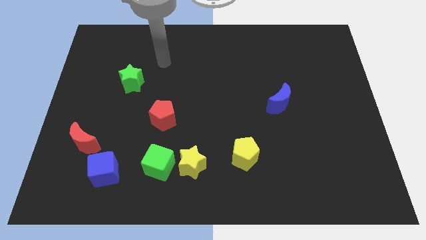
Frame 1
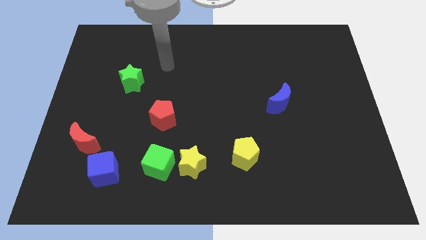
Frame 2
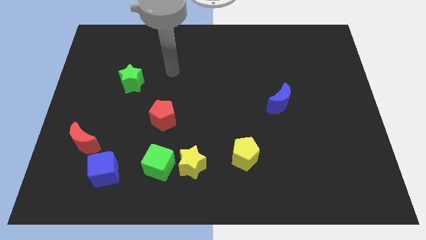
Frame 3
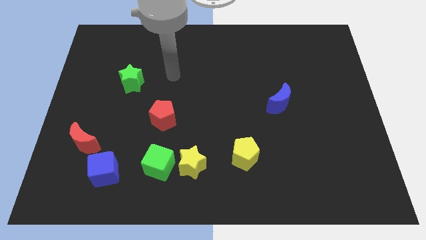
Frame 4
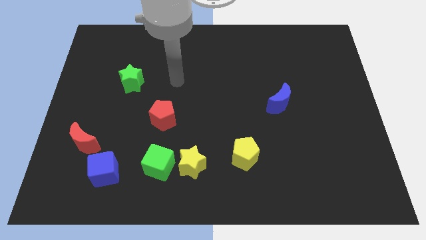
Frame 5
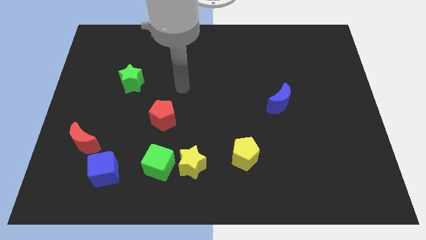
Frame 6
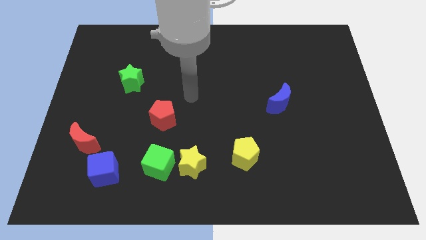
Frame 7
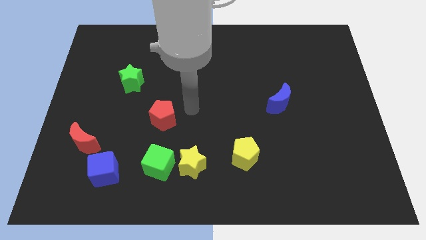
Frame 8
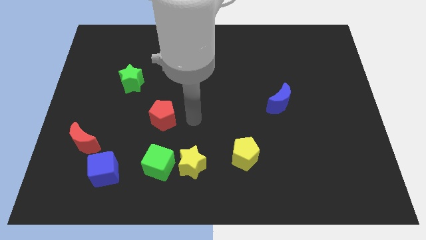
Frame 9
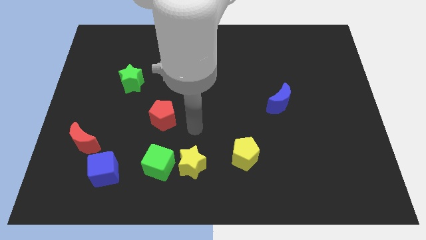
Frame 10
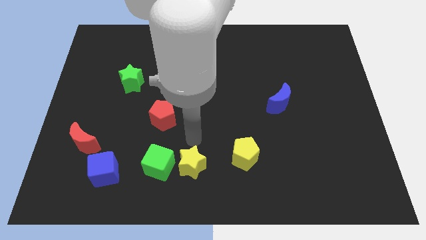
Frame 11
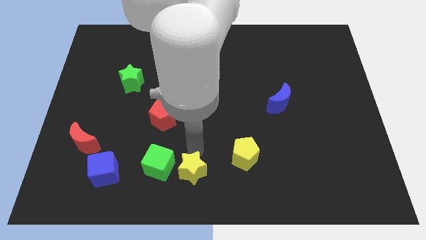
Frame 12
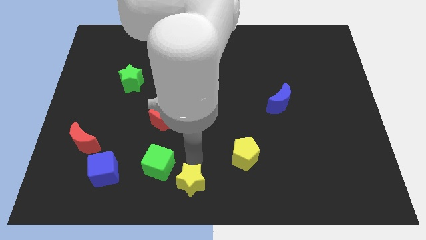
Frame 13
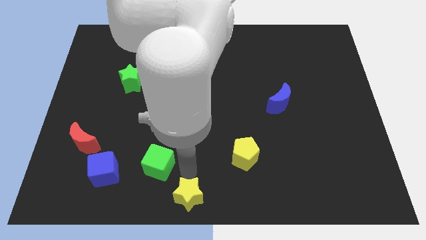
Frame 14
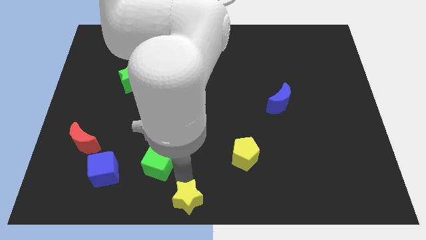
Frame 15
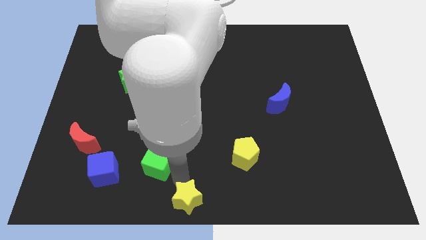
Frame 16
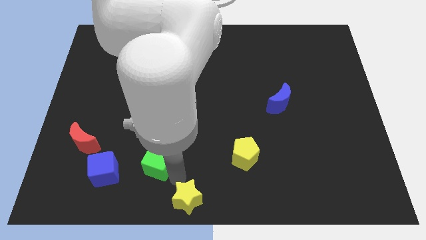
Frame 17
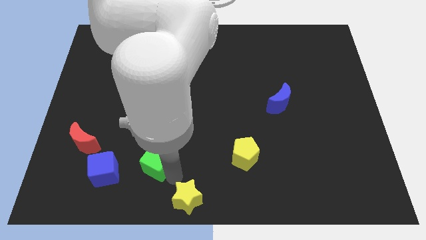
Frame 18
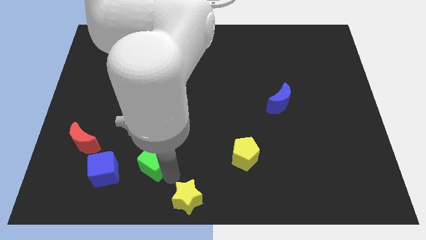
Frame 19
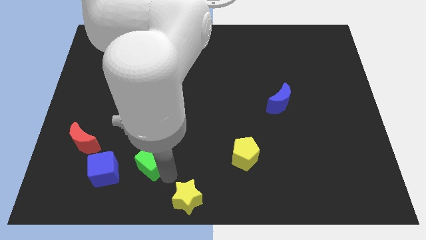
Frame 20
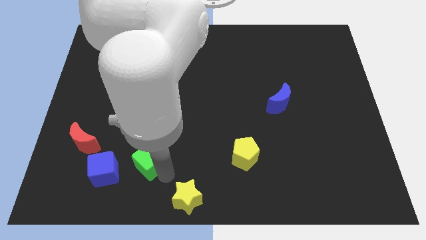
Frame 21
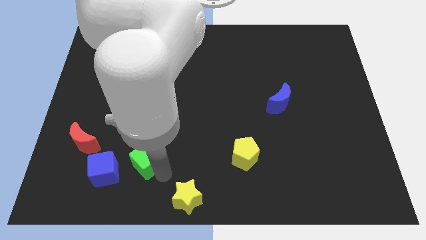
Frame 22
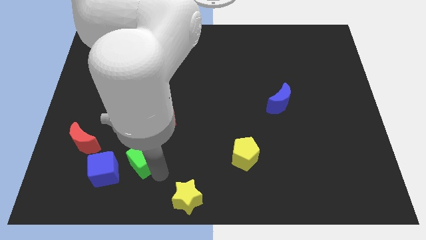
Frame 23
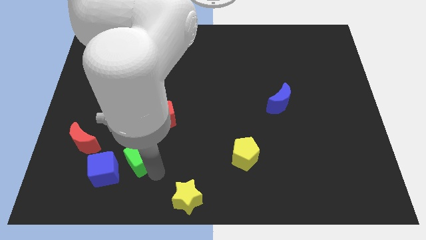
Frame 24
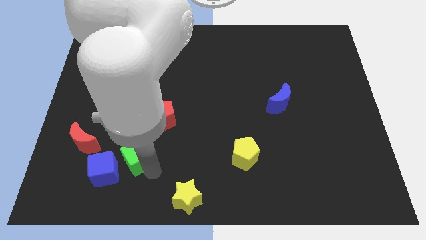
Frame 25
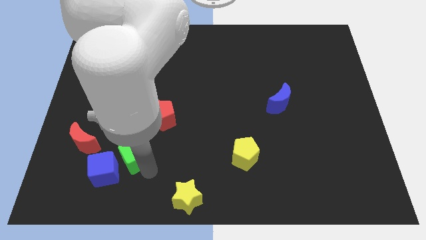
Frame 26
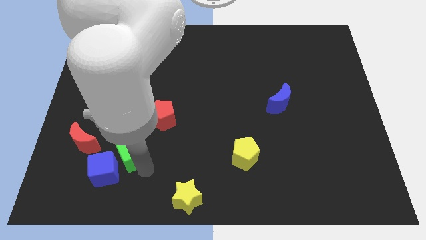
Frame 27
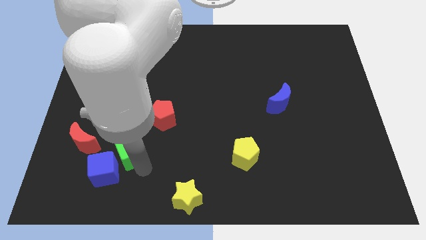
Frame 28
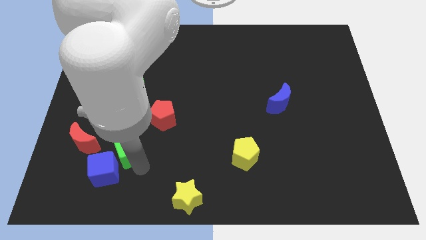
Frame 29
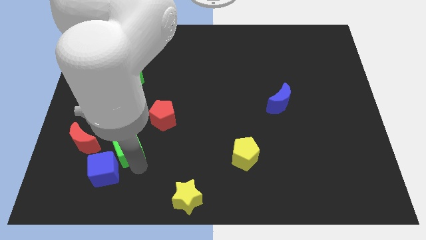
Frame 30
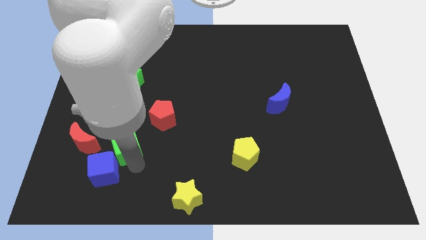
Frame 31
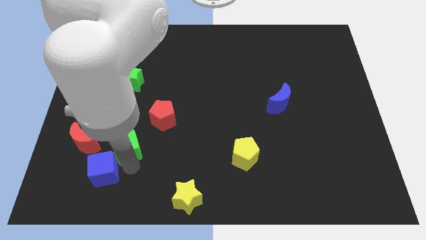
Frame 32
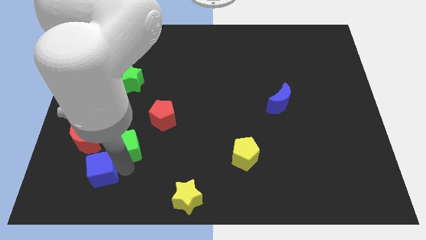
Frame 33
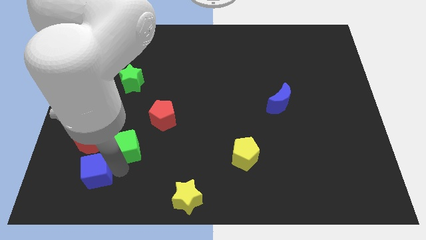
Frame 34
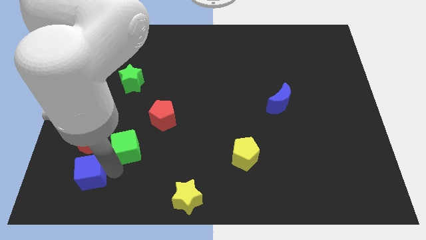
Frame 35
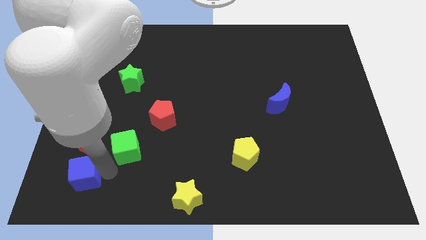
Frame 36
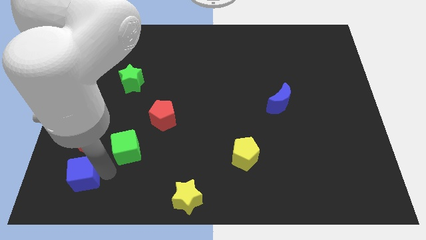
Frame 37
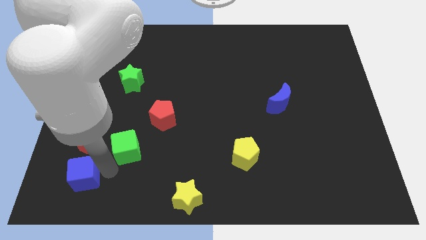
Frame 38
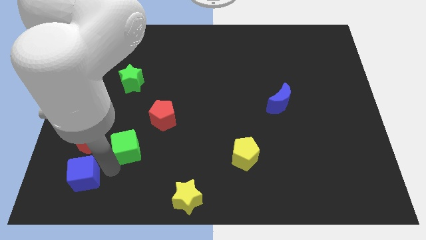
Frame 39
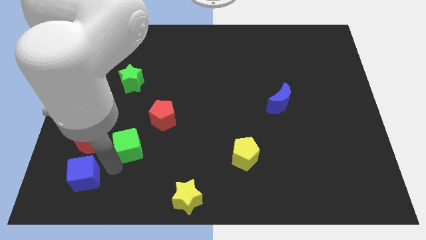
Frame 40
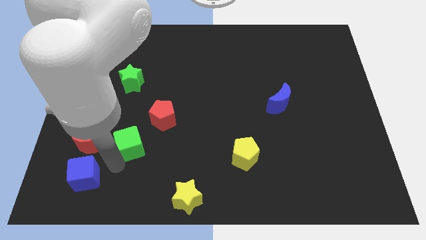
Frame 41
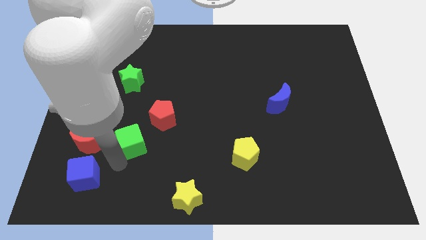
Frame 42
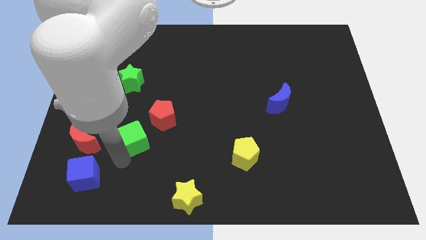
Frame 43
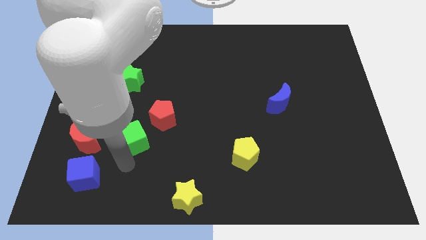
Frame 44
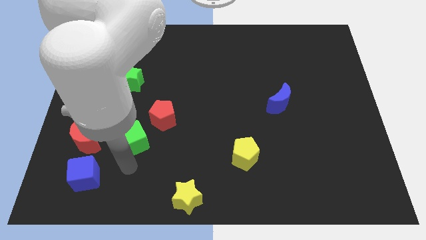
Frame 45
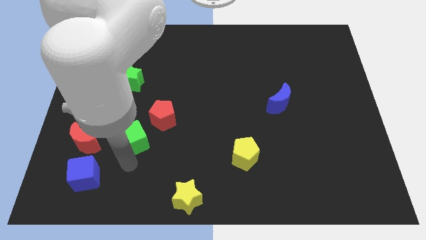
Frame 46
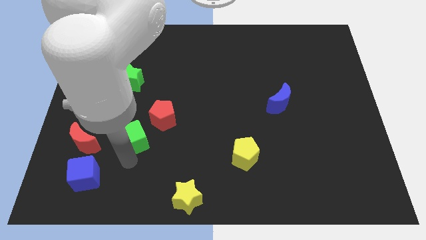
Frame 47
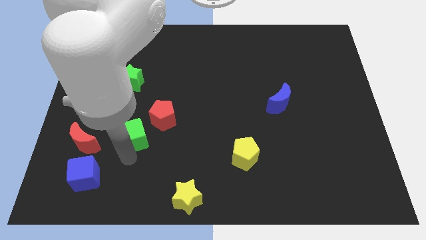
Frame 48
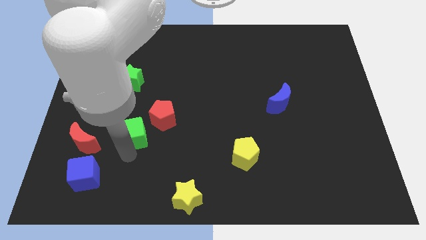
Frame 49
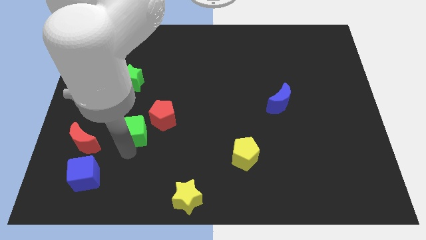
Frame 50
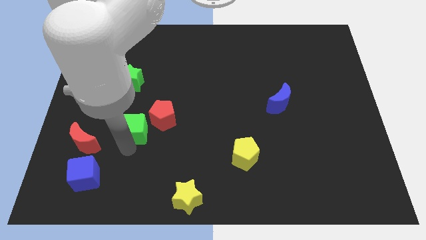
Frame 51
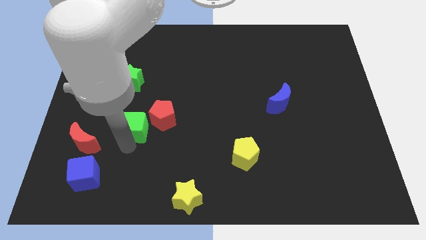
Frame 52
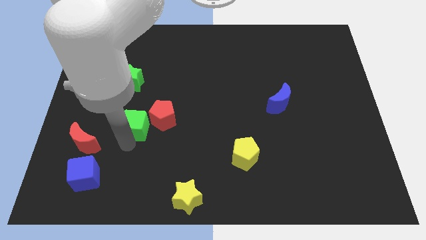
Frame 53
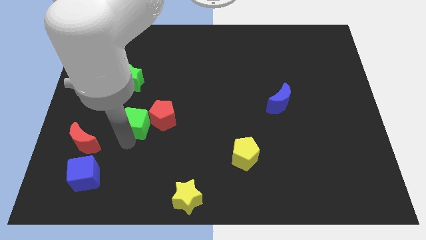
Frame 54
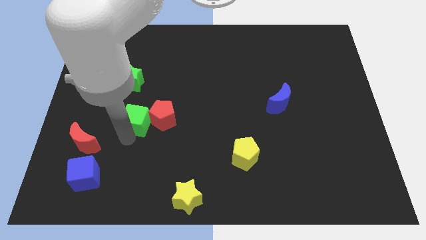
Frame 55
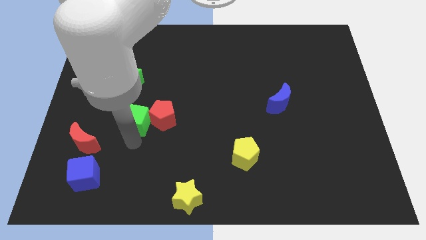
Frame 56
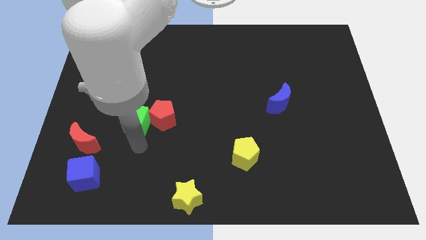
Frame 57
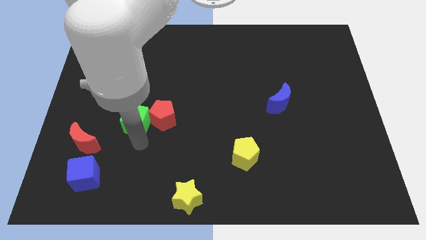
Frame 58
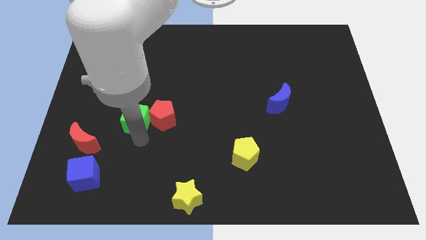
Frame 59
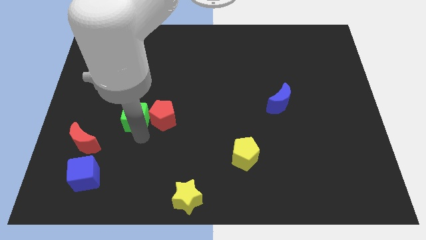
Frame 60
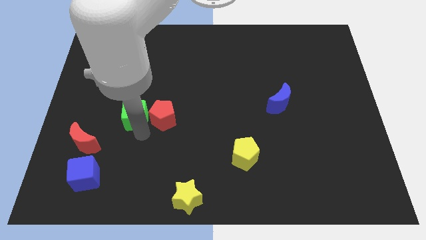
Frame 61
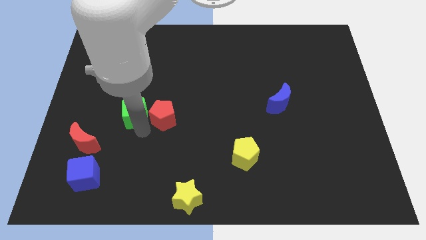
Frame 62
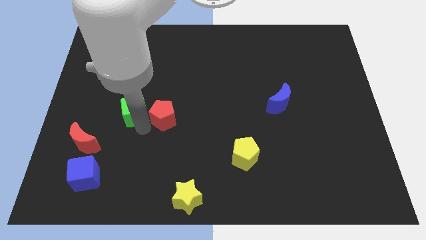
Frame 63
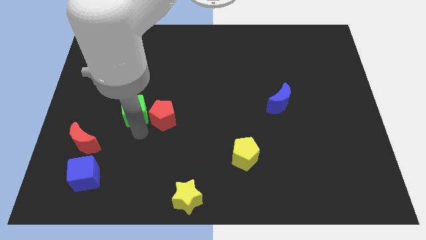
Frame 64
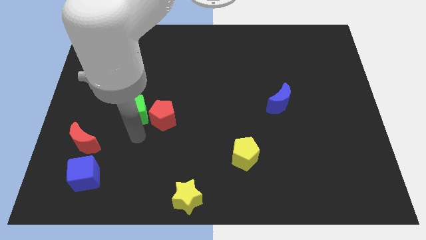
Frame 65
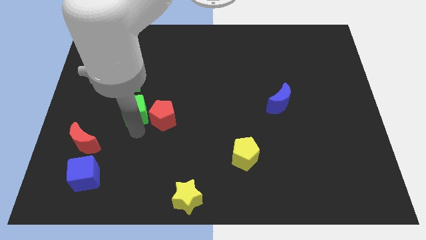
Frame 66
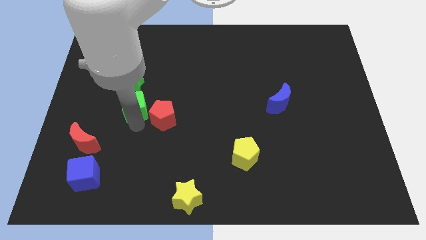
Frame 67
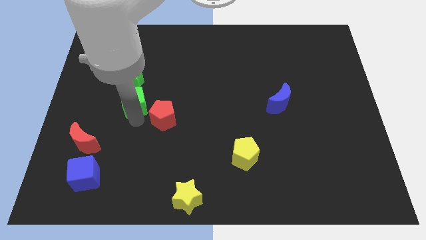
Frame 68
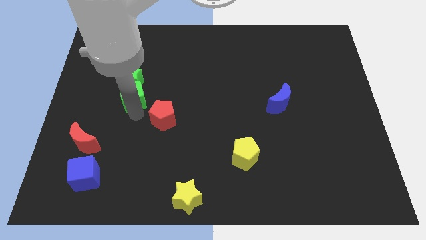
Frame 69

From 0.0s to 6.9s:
put the green cube towards the green star

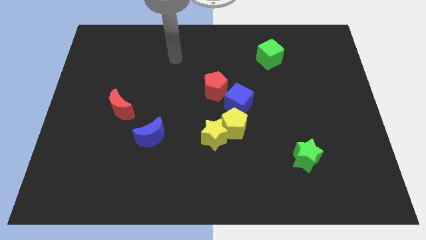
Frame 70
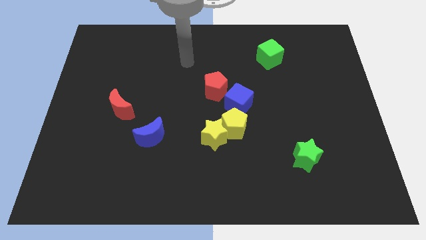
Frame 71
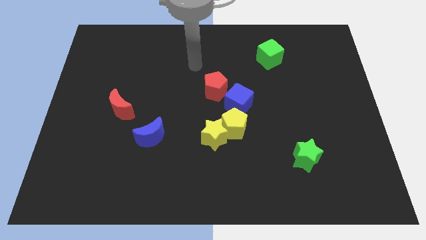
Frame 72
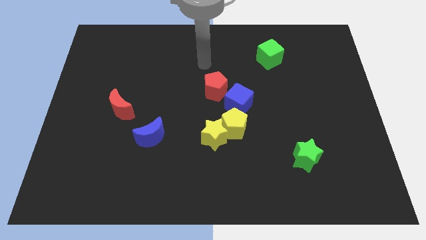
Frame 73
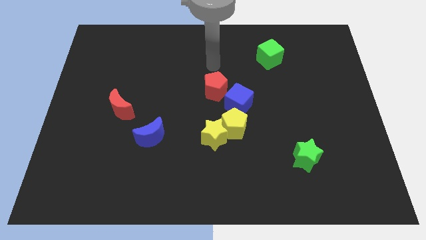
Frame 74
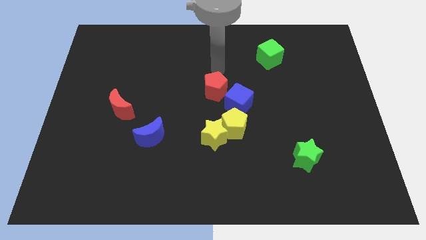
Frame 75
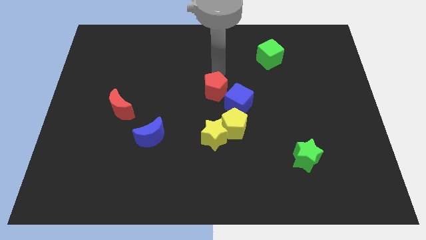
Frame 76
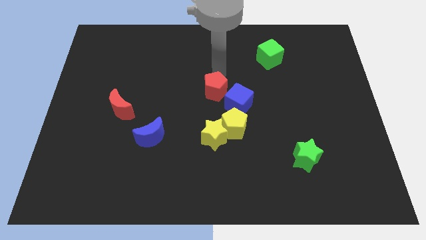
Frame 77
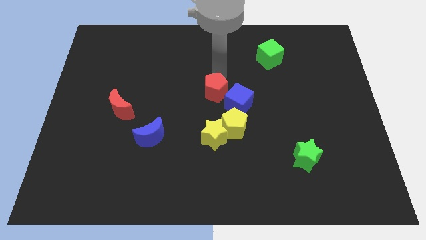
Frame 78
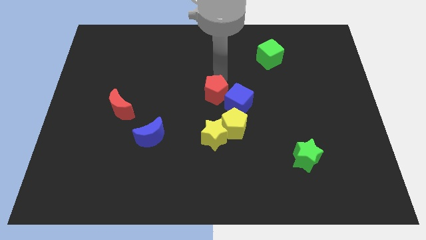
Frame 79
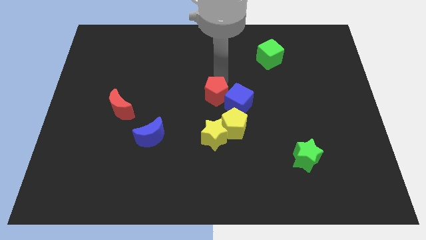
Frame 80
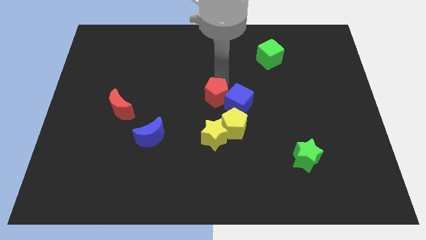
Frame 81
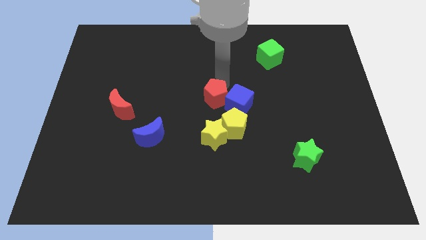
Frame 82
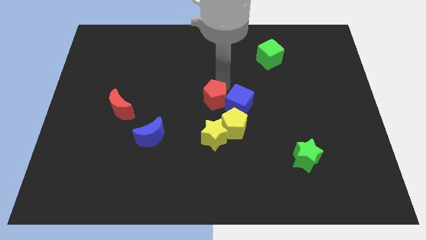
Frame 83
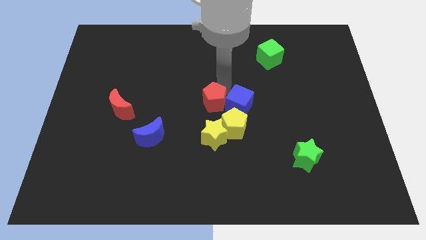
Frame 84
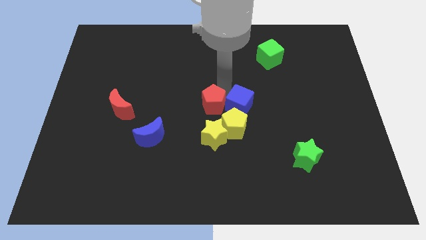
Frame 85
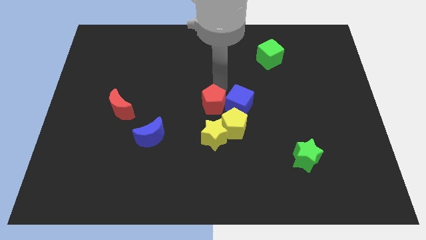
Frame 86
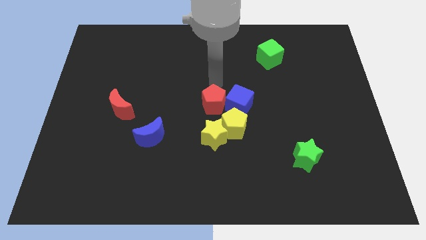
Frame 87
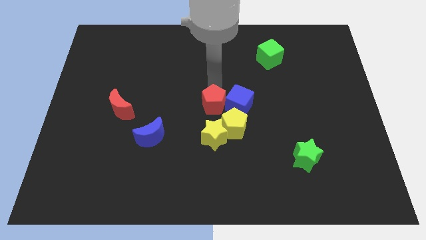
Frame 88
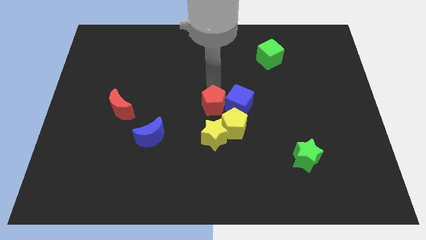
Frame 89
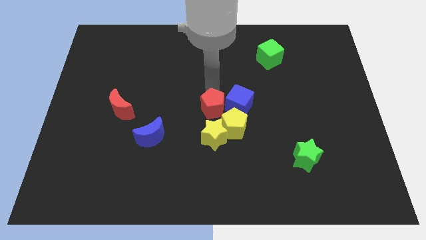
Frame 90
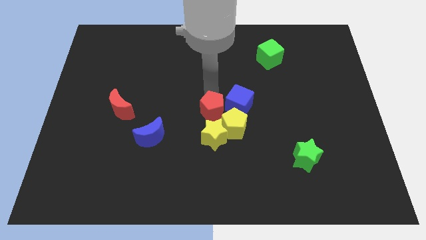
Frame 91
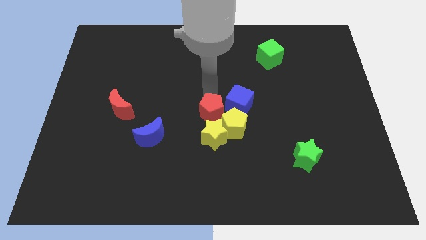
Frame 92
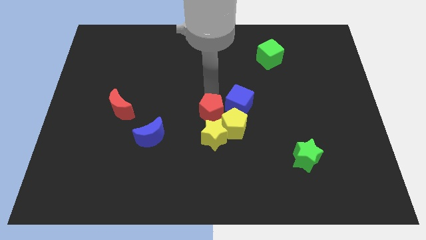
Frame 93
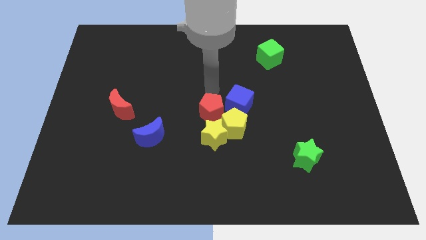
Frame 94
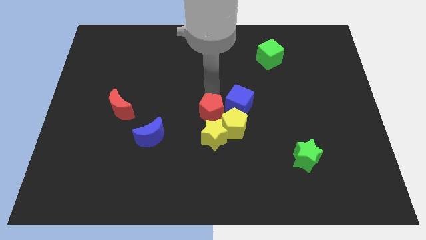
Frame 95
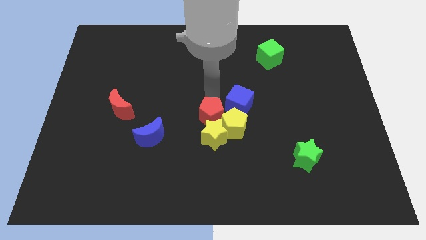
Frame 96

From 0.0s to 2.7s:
put the red pentagon towards the yellow star
